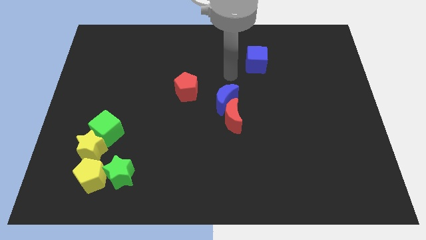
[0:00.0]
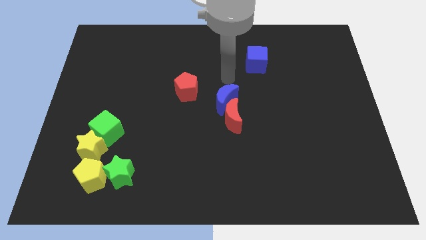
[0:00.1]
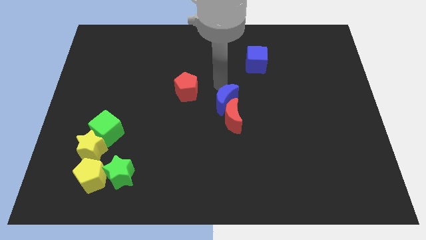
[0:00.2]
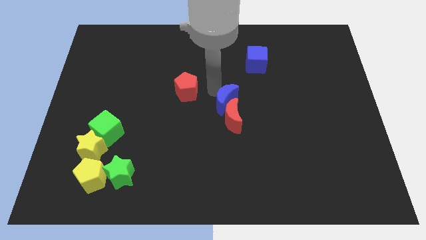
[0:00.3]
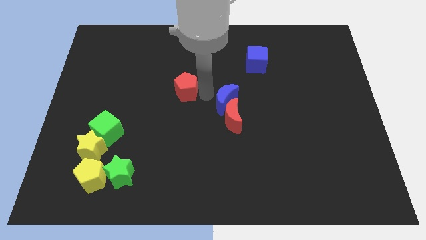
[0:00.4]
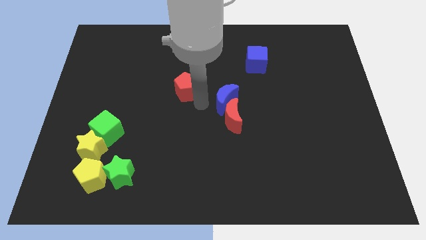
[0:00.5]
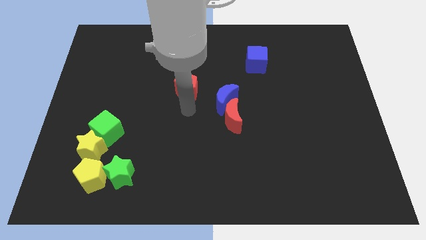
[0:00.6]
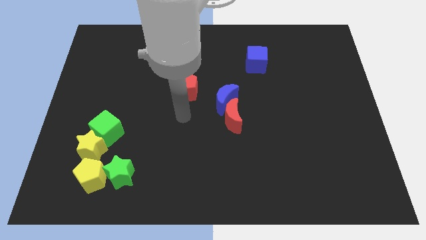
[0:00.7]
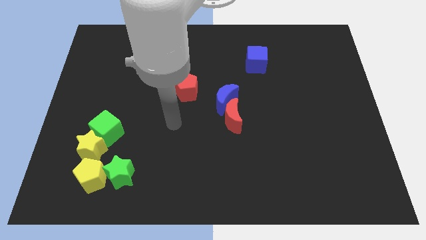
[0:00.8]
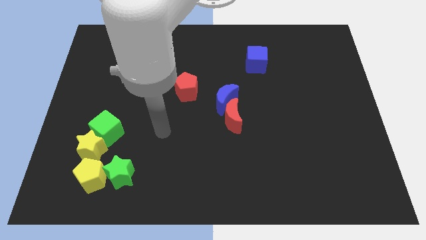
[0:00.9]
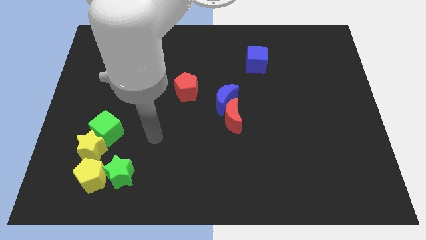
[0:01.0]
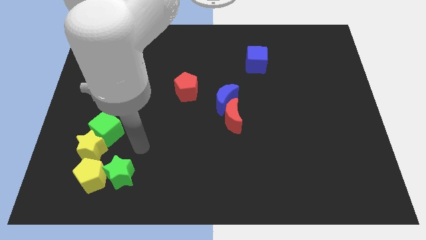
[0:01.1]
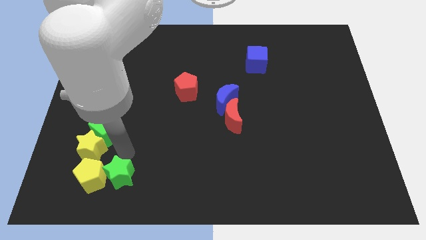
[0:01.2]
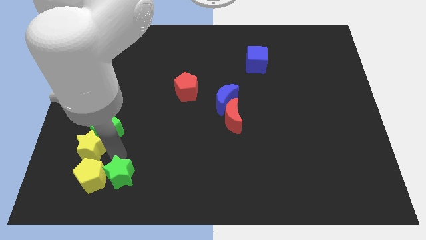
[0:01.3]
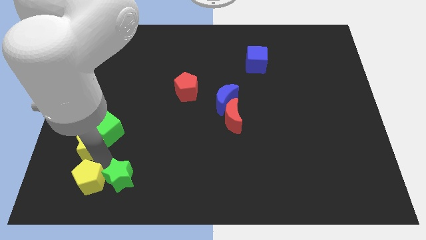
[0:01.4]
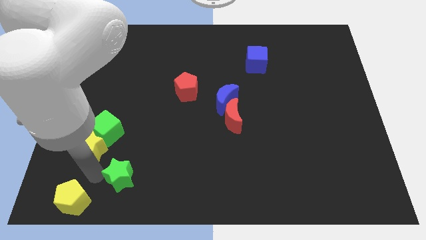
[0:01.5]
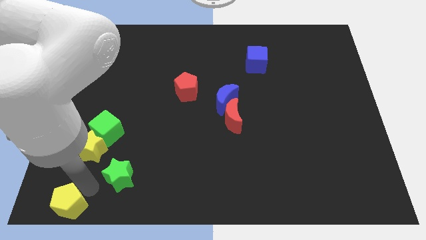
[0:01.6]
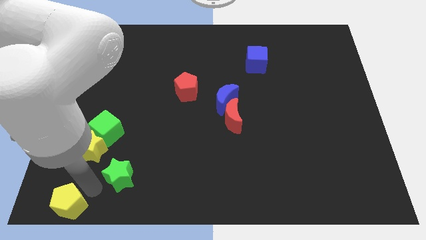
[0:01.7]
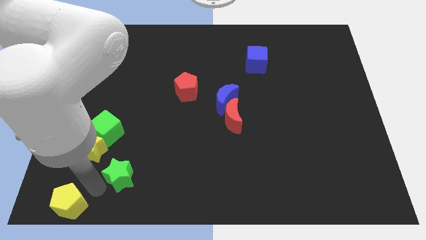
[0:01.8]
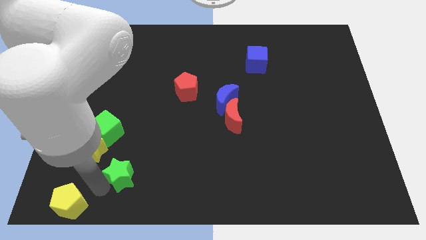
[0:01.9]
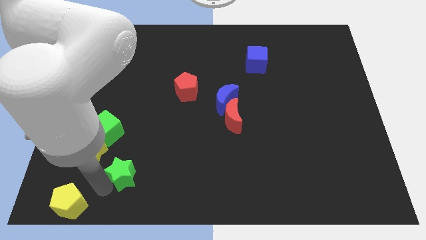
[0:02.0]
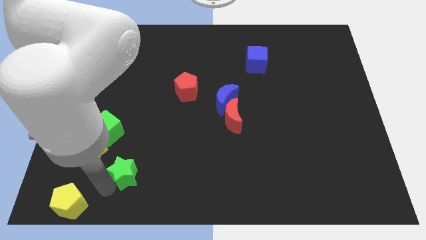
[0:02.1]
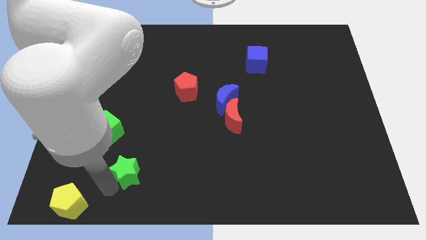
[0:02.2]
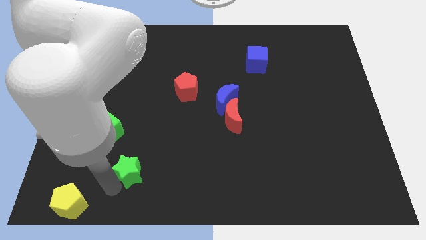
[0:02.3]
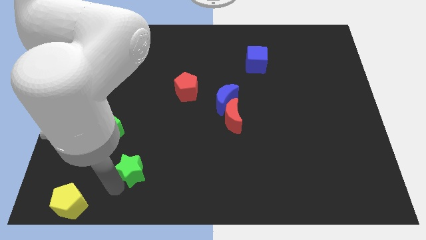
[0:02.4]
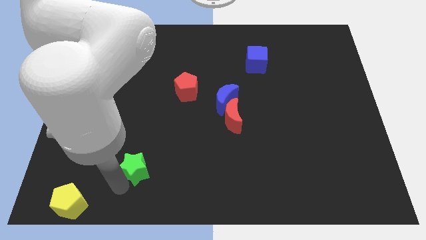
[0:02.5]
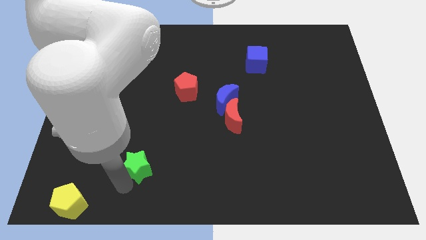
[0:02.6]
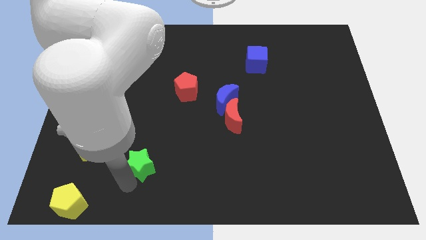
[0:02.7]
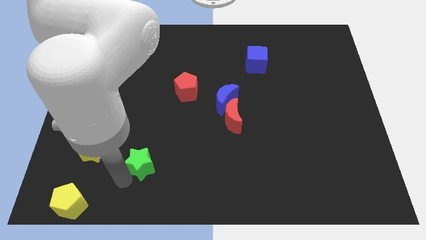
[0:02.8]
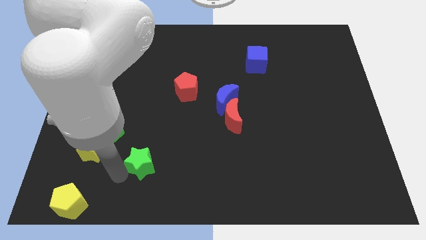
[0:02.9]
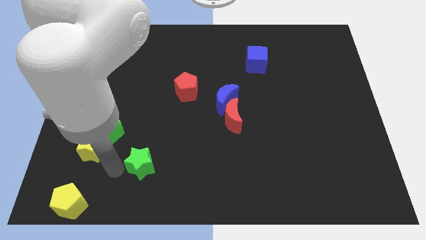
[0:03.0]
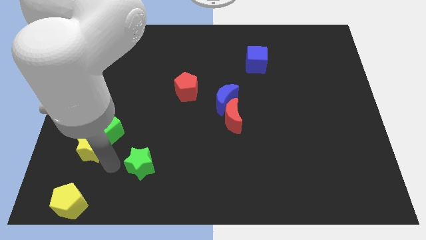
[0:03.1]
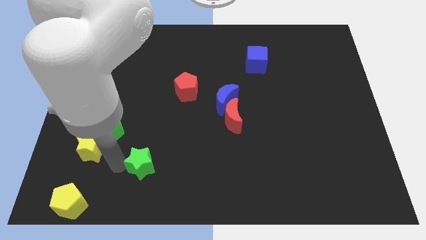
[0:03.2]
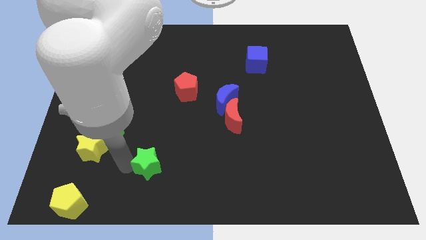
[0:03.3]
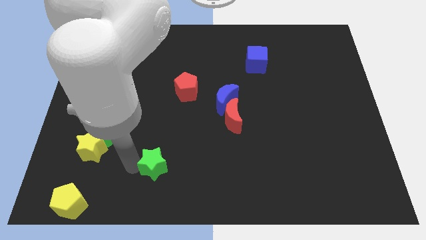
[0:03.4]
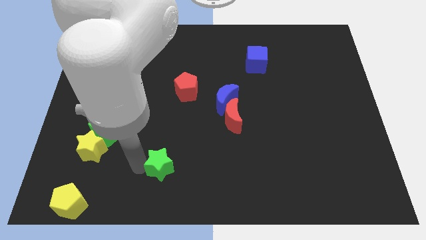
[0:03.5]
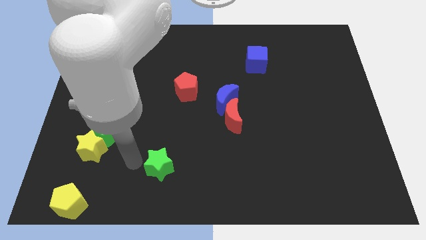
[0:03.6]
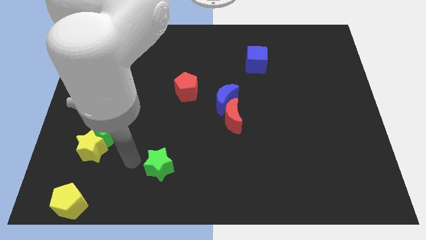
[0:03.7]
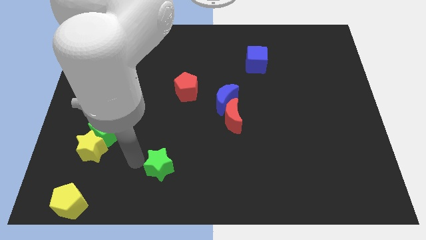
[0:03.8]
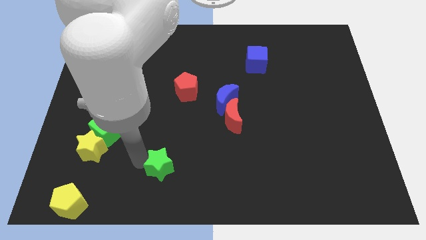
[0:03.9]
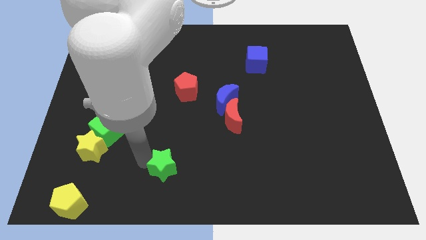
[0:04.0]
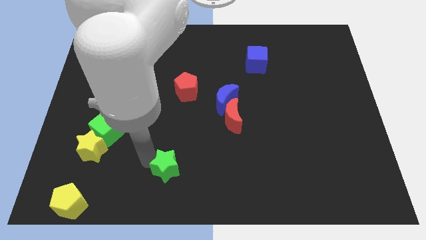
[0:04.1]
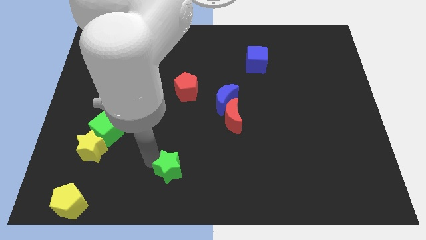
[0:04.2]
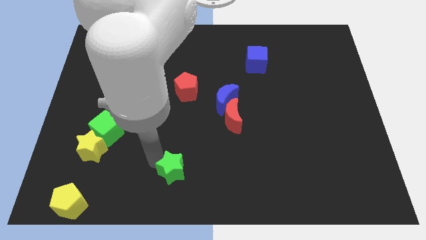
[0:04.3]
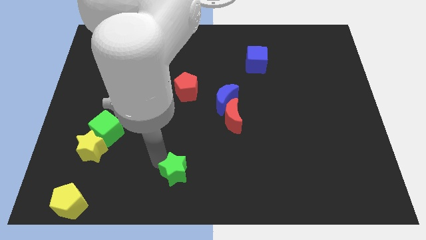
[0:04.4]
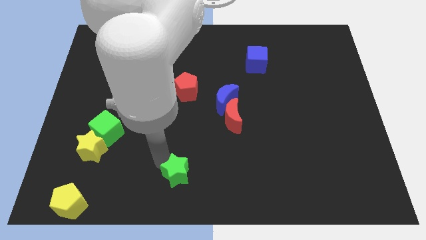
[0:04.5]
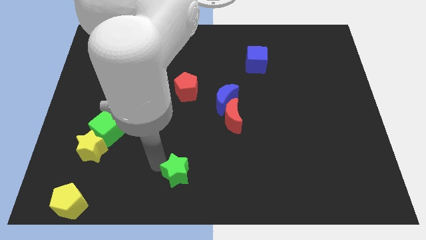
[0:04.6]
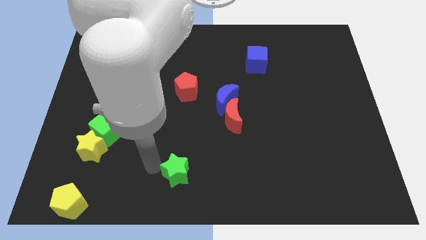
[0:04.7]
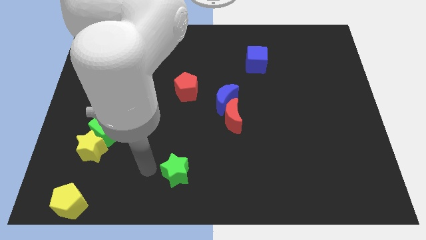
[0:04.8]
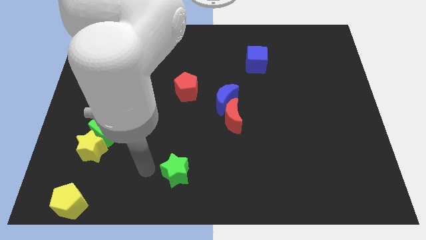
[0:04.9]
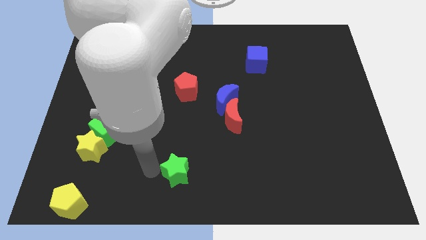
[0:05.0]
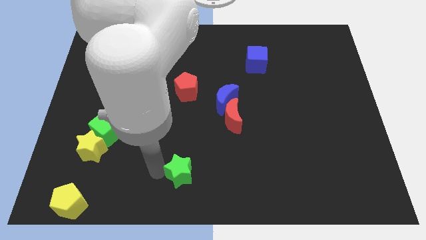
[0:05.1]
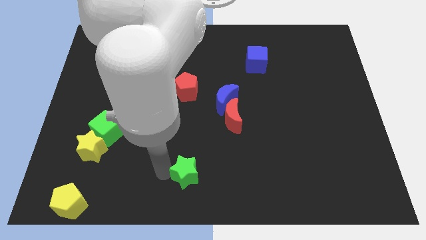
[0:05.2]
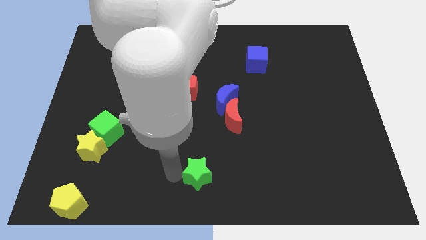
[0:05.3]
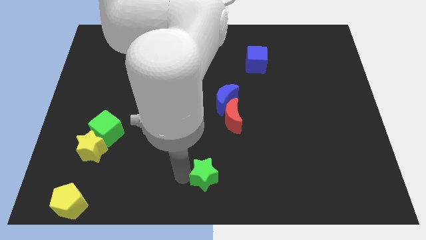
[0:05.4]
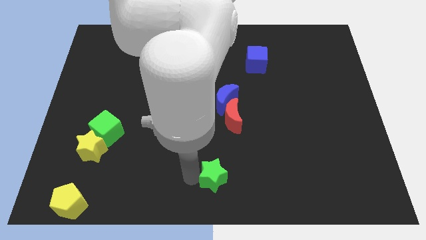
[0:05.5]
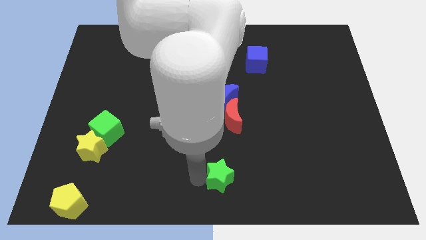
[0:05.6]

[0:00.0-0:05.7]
move the green star to the right

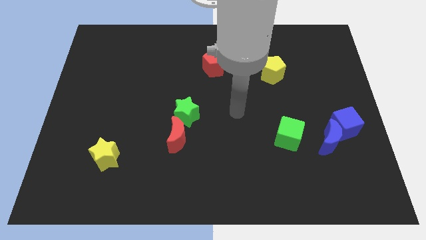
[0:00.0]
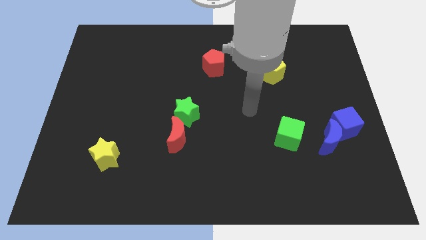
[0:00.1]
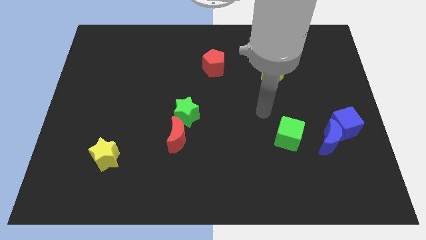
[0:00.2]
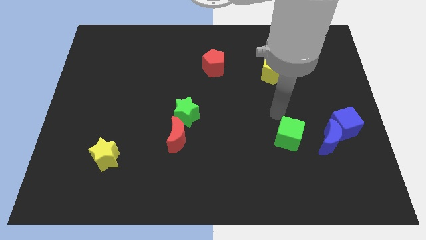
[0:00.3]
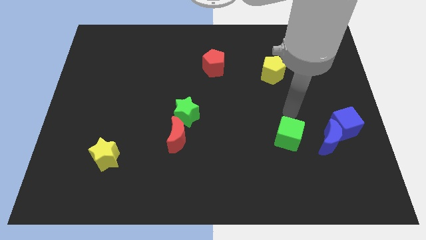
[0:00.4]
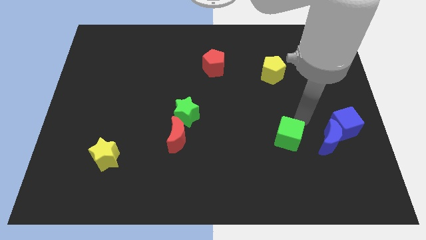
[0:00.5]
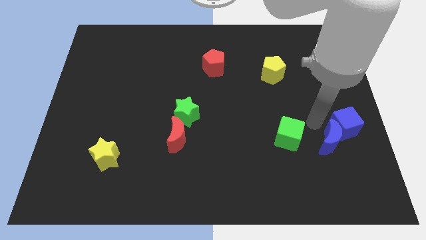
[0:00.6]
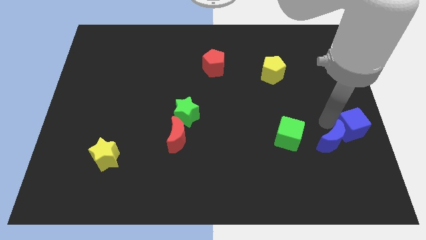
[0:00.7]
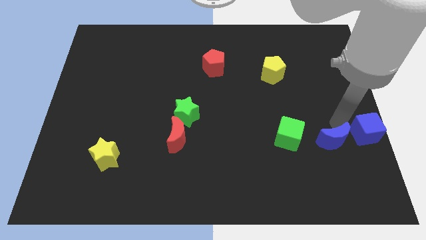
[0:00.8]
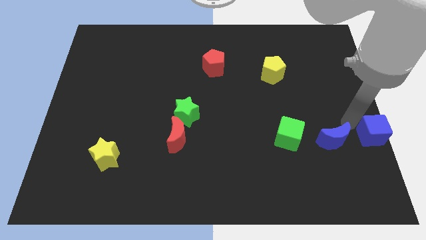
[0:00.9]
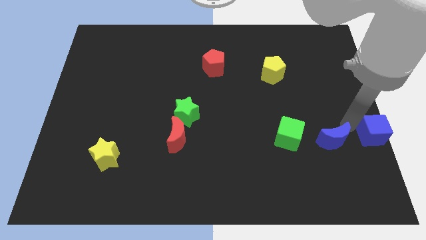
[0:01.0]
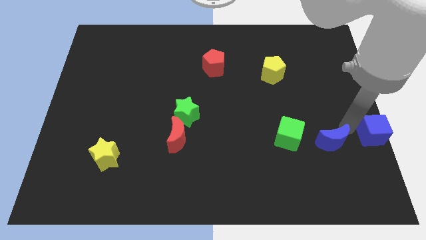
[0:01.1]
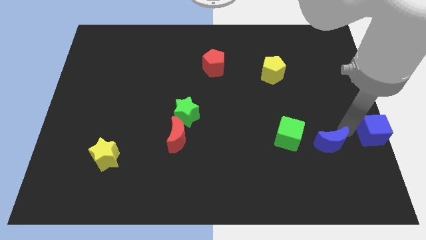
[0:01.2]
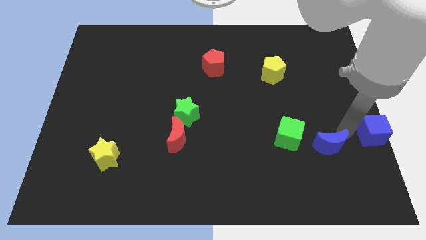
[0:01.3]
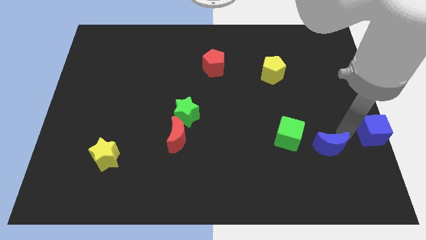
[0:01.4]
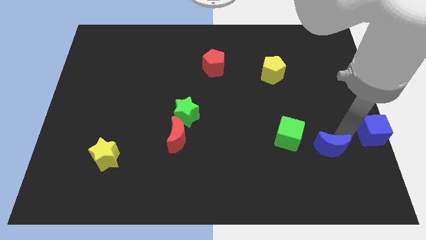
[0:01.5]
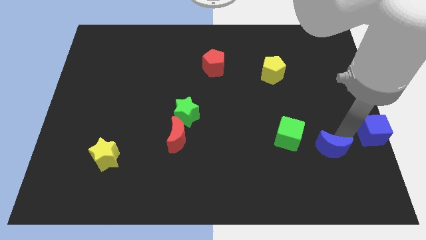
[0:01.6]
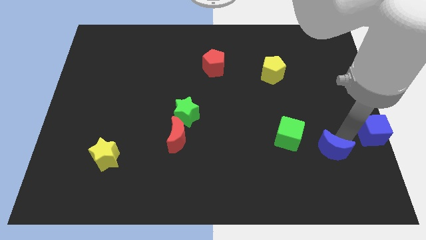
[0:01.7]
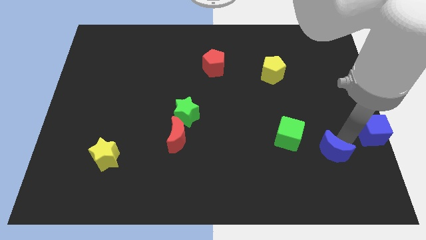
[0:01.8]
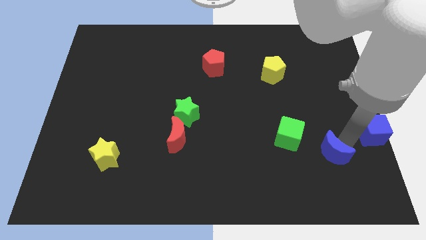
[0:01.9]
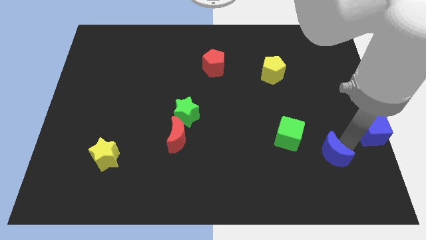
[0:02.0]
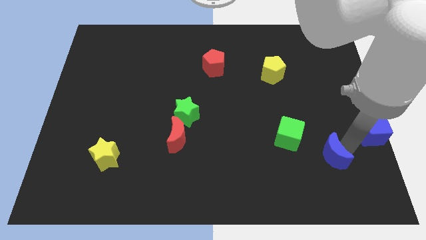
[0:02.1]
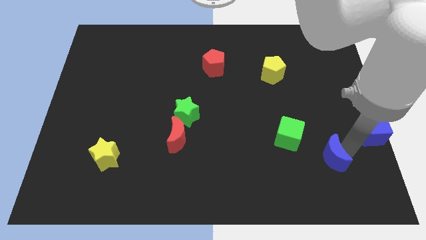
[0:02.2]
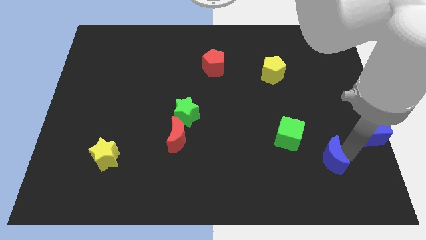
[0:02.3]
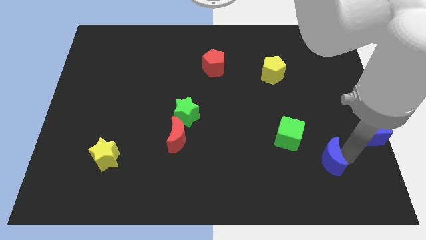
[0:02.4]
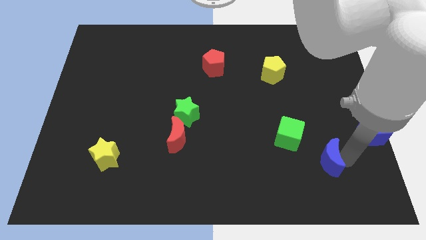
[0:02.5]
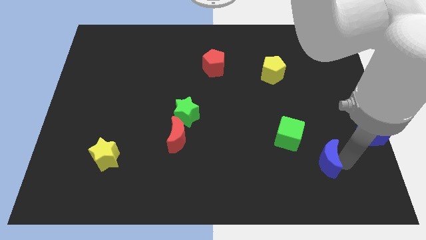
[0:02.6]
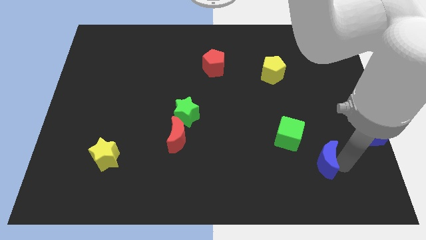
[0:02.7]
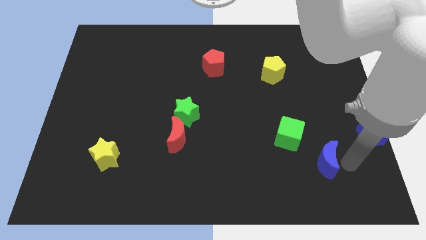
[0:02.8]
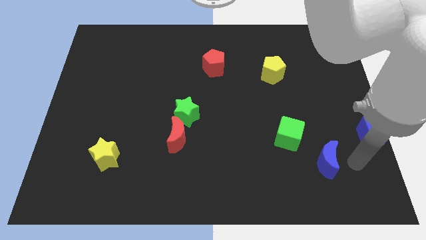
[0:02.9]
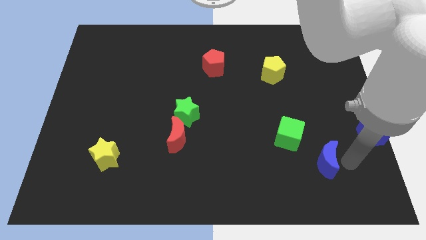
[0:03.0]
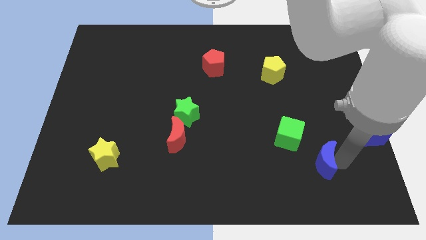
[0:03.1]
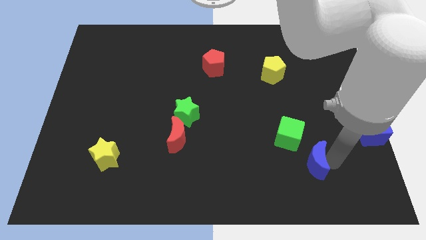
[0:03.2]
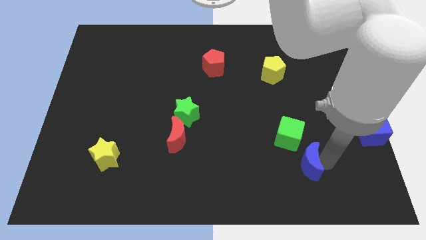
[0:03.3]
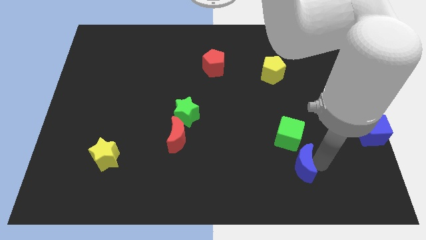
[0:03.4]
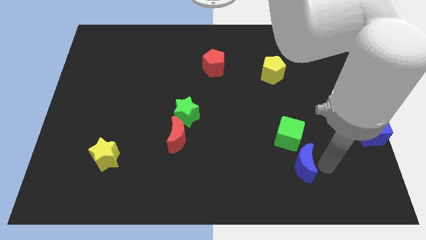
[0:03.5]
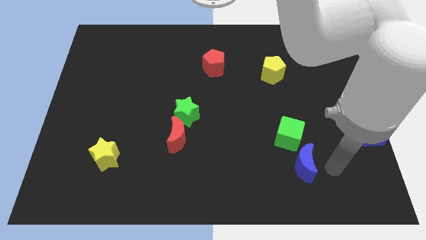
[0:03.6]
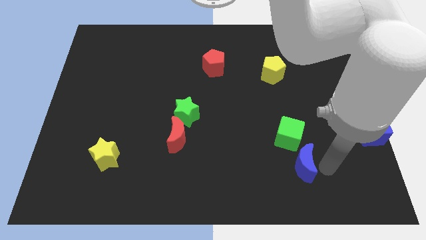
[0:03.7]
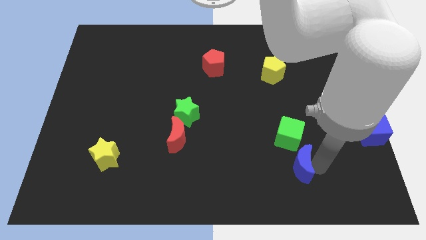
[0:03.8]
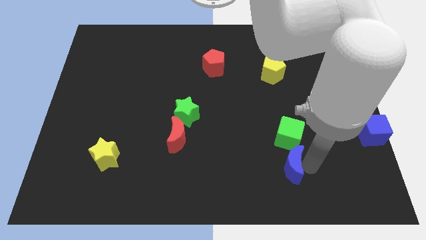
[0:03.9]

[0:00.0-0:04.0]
slightly move the blue moon to the left
